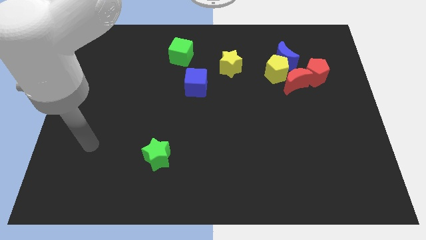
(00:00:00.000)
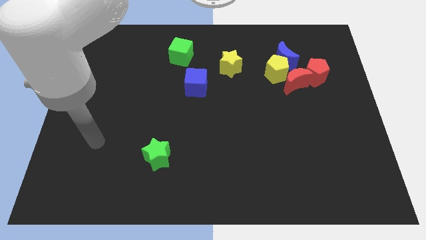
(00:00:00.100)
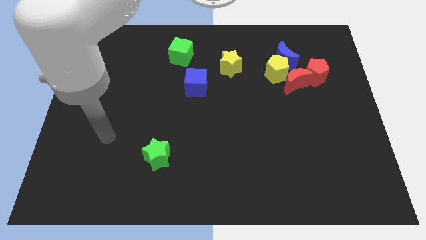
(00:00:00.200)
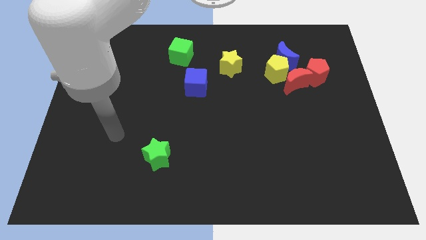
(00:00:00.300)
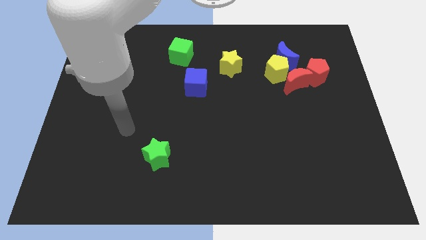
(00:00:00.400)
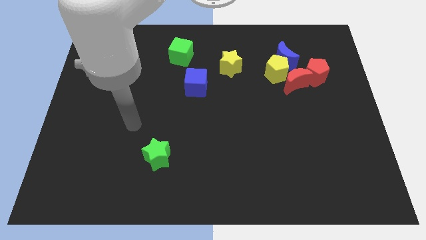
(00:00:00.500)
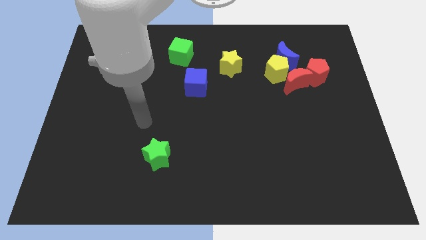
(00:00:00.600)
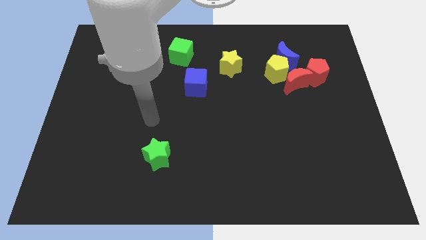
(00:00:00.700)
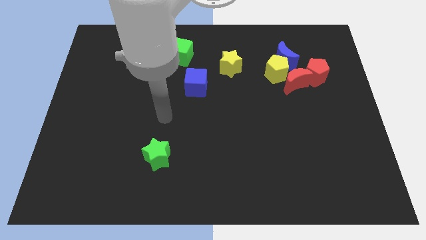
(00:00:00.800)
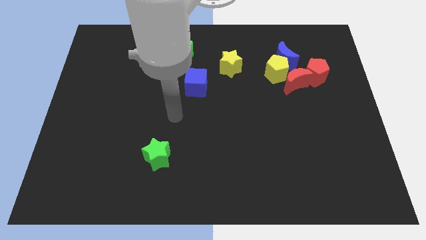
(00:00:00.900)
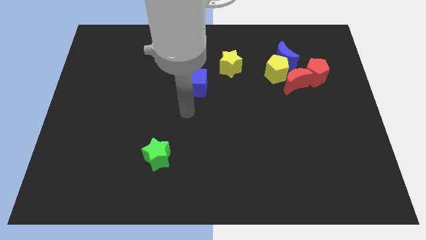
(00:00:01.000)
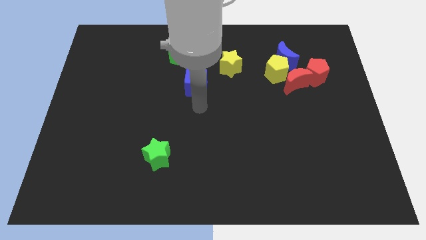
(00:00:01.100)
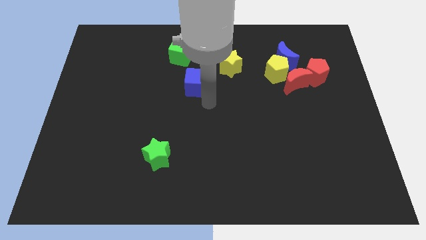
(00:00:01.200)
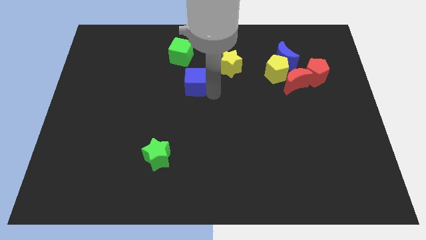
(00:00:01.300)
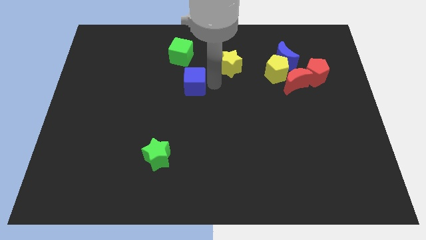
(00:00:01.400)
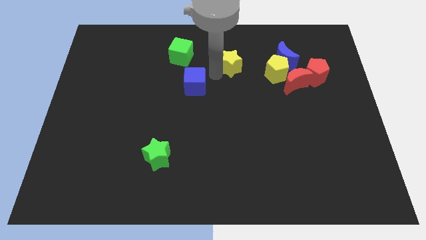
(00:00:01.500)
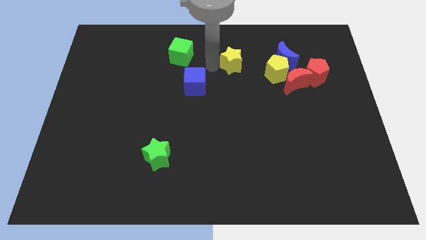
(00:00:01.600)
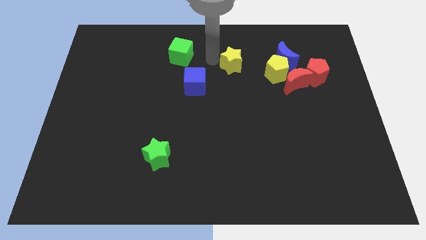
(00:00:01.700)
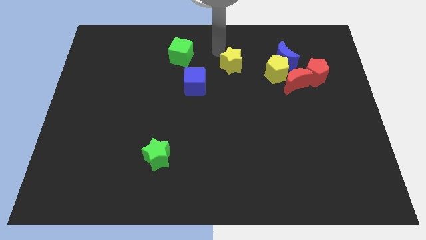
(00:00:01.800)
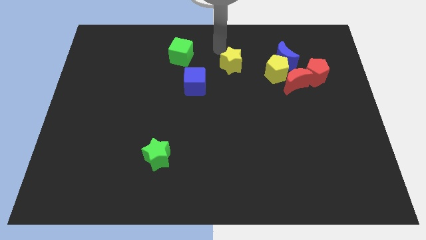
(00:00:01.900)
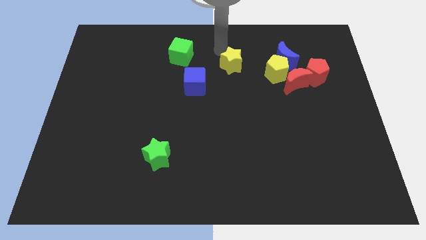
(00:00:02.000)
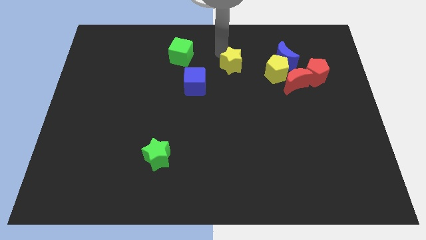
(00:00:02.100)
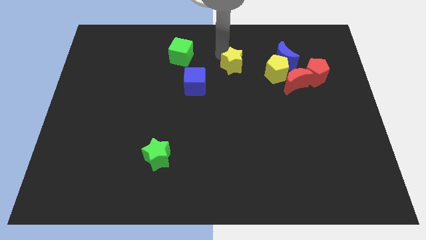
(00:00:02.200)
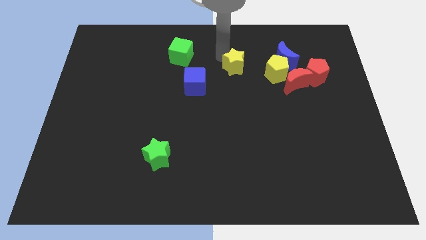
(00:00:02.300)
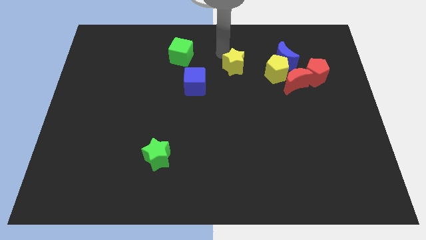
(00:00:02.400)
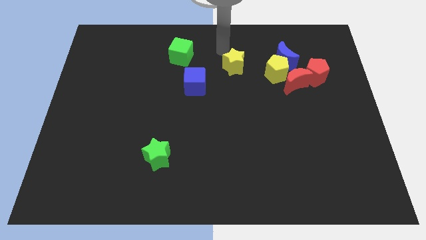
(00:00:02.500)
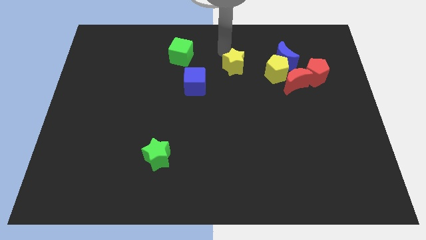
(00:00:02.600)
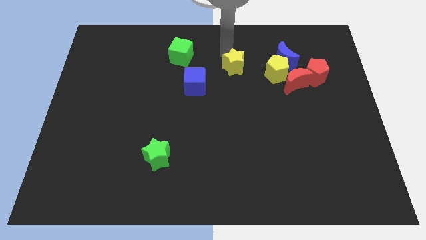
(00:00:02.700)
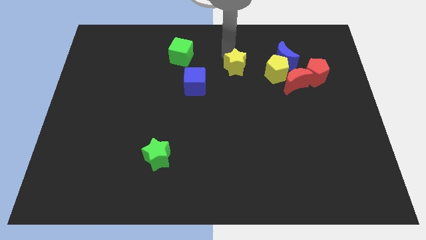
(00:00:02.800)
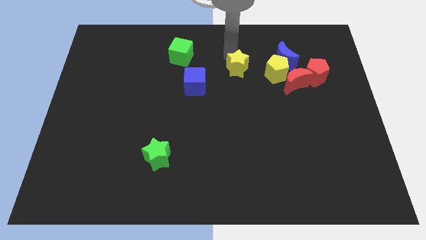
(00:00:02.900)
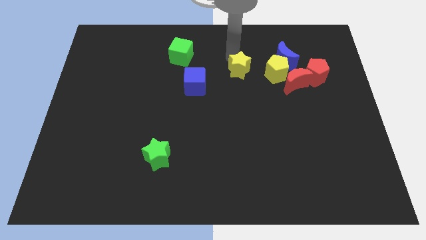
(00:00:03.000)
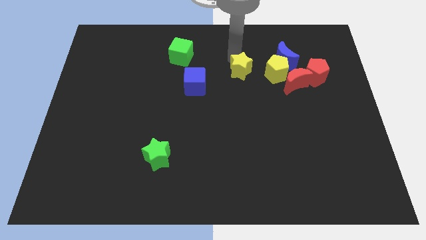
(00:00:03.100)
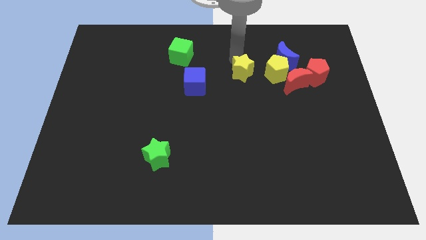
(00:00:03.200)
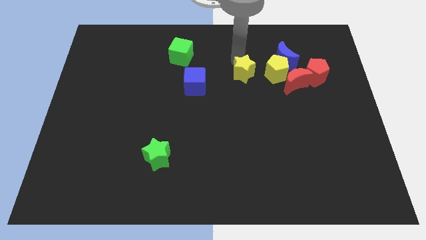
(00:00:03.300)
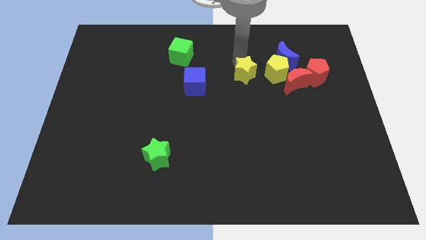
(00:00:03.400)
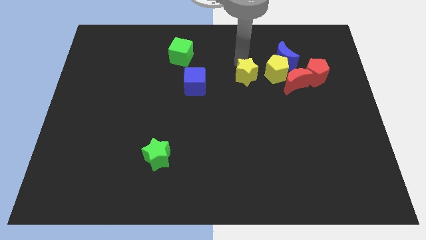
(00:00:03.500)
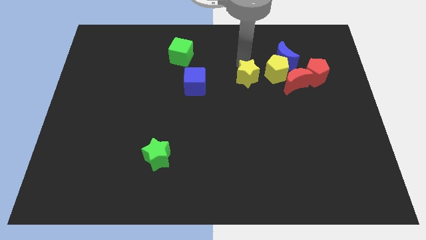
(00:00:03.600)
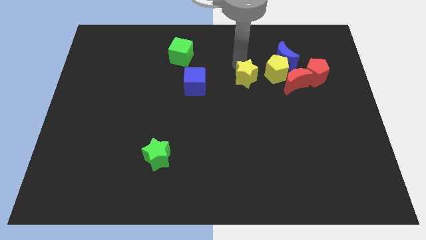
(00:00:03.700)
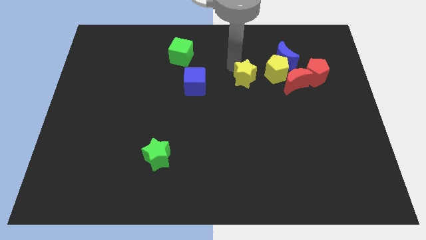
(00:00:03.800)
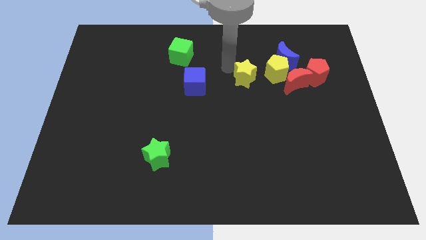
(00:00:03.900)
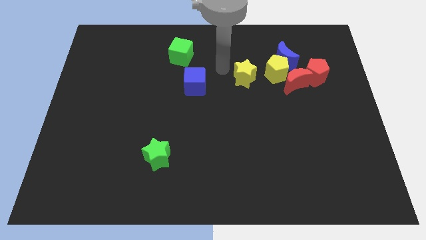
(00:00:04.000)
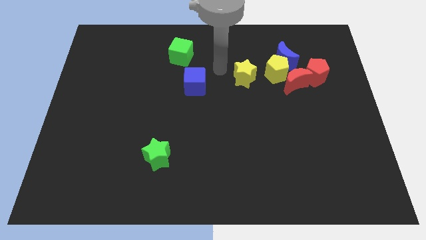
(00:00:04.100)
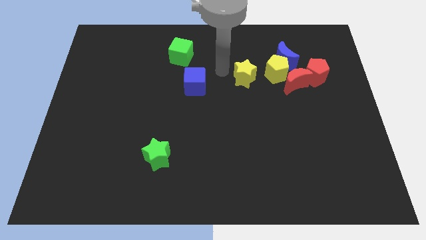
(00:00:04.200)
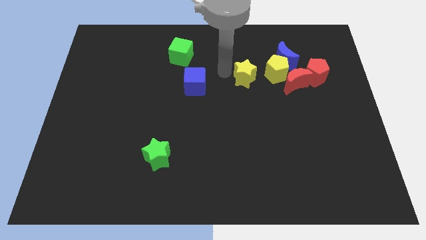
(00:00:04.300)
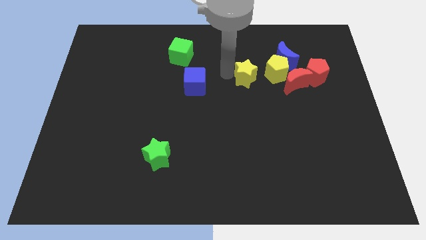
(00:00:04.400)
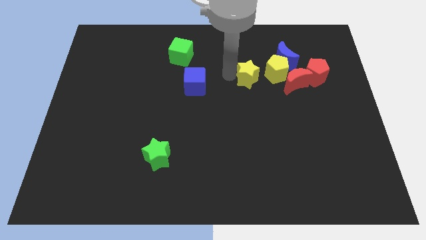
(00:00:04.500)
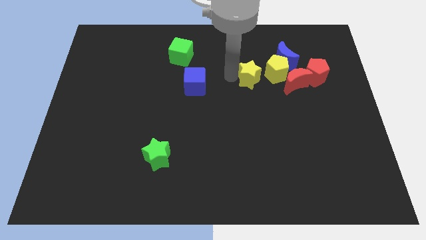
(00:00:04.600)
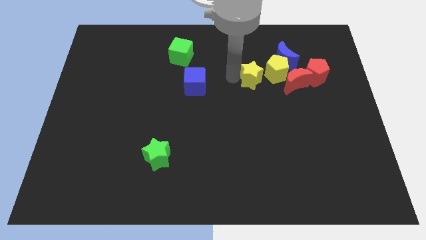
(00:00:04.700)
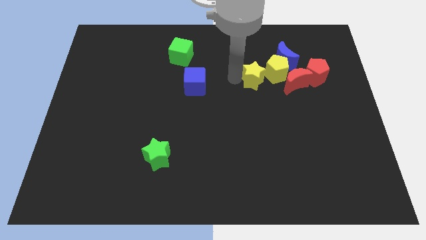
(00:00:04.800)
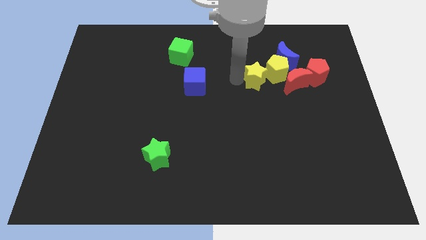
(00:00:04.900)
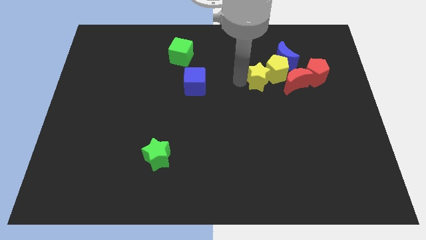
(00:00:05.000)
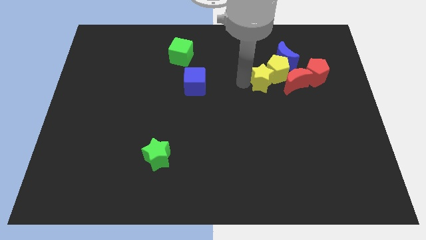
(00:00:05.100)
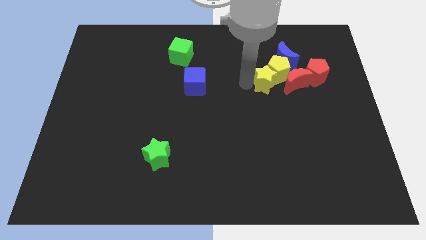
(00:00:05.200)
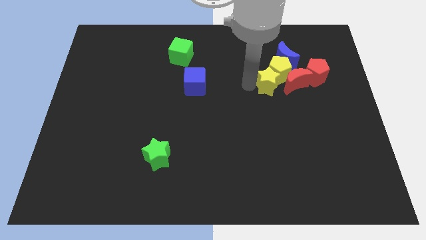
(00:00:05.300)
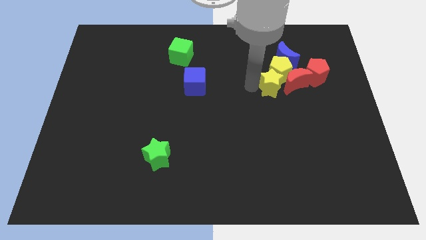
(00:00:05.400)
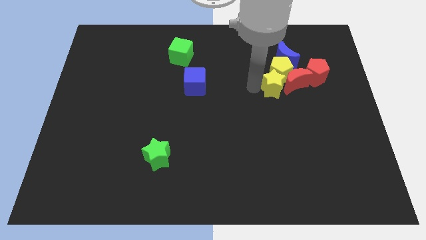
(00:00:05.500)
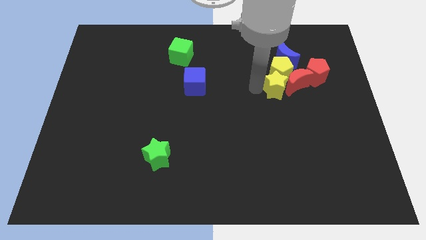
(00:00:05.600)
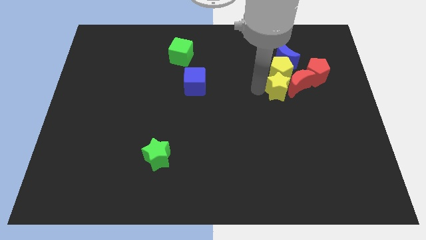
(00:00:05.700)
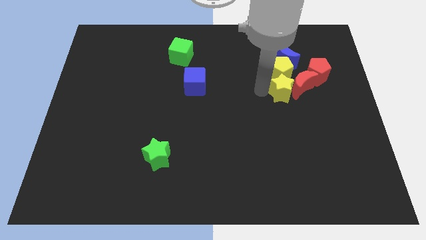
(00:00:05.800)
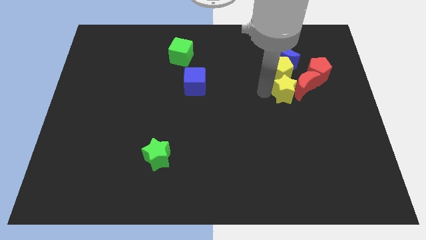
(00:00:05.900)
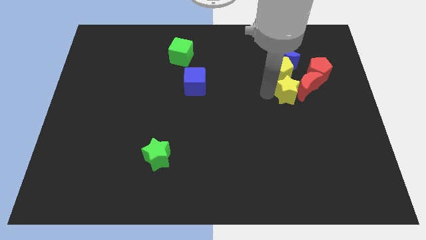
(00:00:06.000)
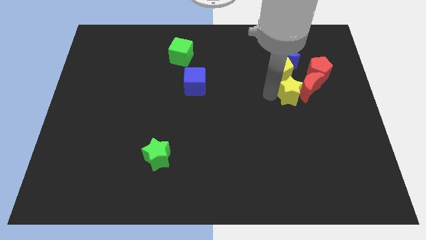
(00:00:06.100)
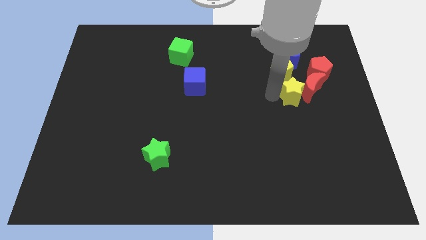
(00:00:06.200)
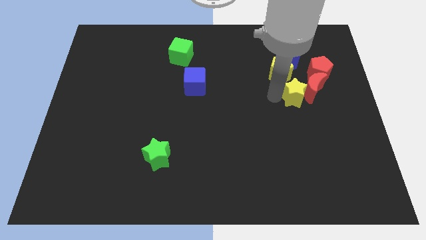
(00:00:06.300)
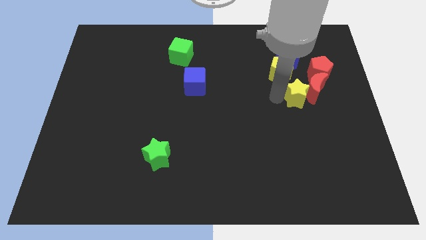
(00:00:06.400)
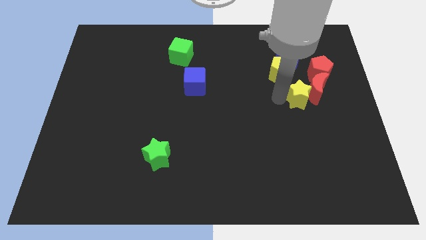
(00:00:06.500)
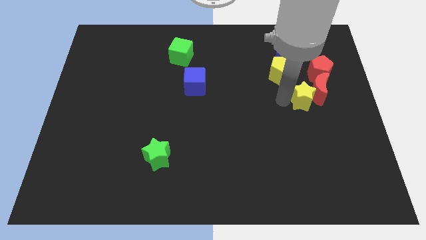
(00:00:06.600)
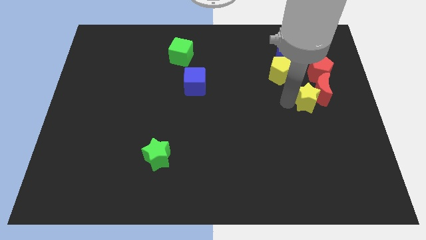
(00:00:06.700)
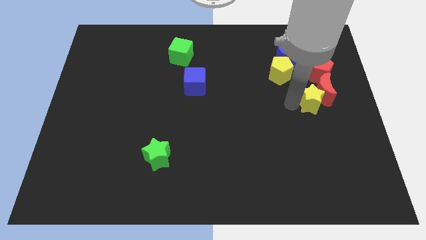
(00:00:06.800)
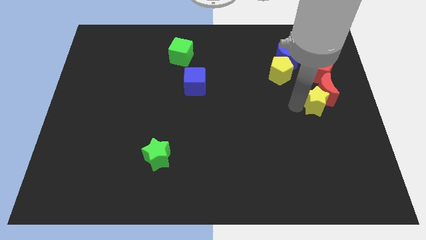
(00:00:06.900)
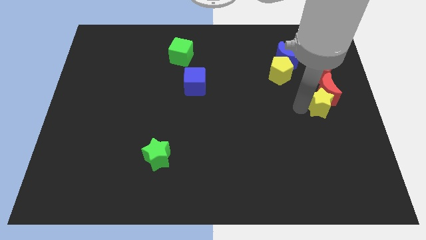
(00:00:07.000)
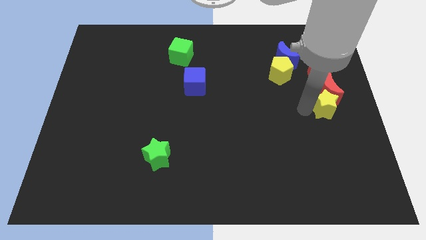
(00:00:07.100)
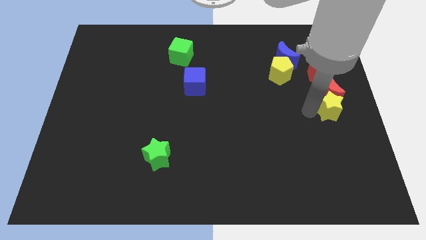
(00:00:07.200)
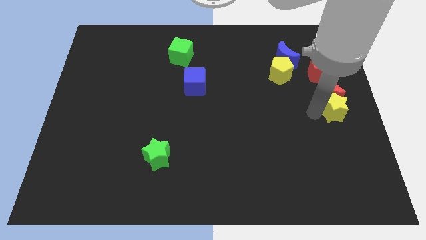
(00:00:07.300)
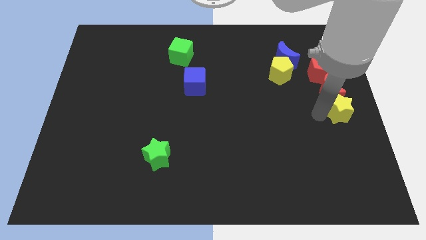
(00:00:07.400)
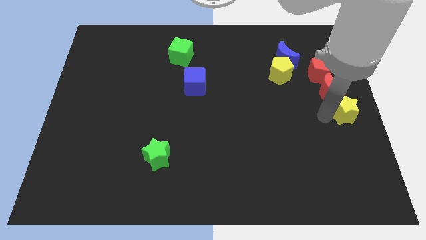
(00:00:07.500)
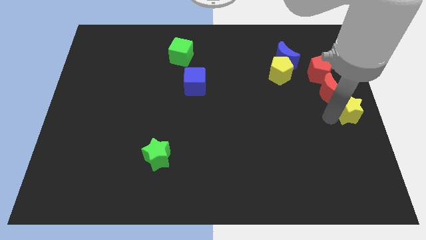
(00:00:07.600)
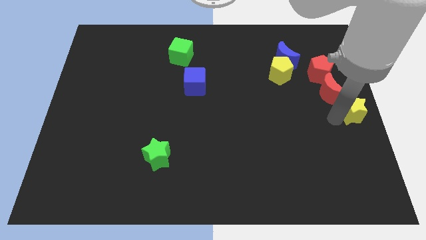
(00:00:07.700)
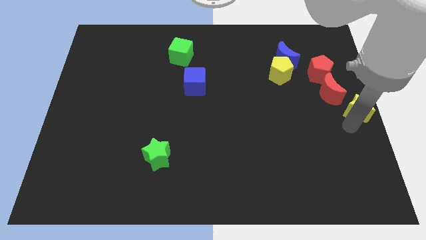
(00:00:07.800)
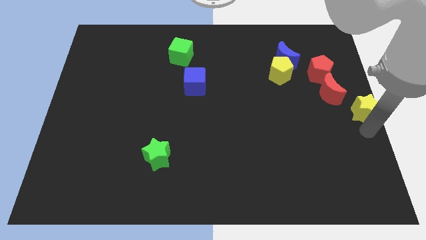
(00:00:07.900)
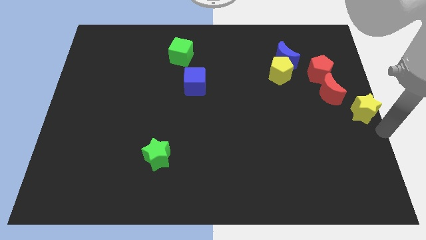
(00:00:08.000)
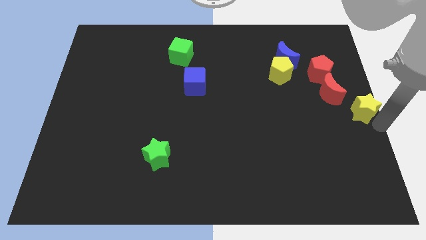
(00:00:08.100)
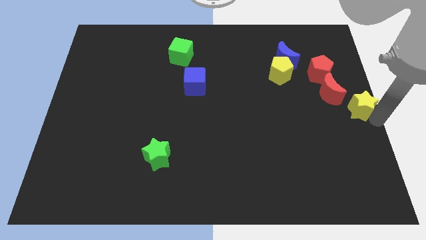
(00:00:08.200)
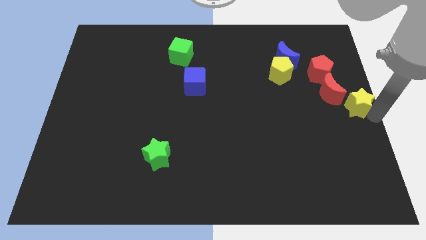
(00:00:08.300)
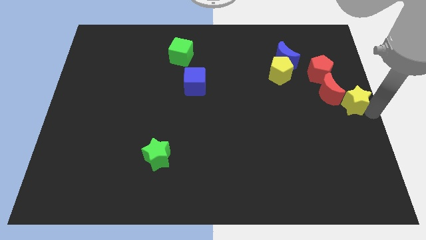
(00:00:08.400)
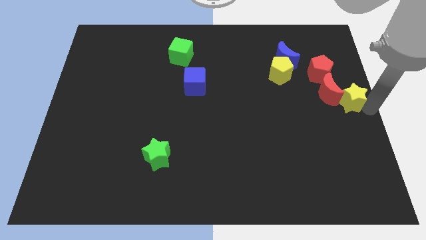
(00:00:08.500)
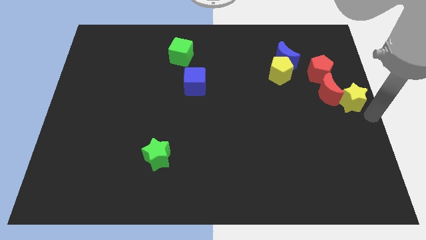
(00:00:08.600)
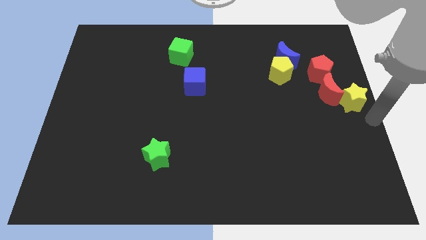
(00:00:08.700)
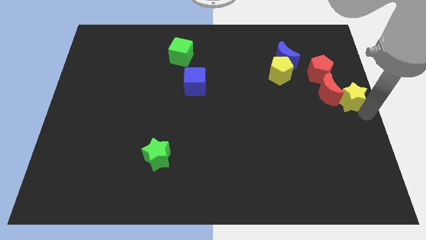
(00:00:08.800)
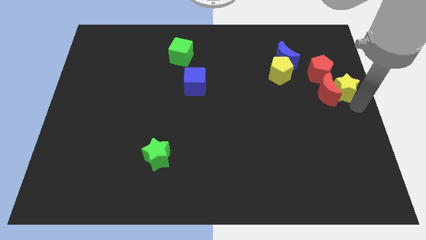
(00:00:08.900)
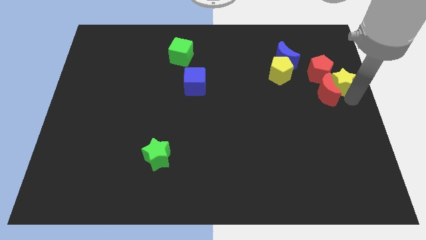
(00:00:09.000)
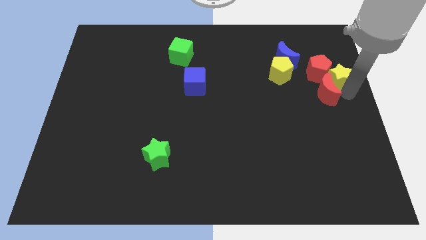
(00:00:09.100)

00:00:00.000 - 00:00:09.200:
put the yellow star towards the red pentagon
